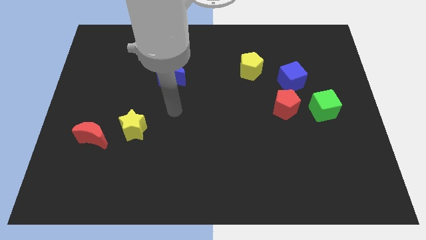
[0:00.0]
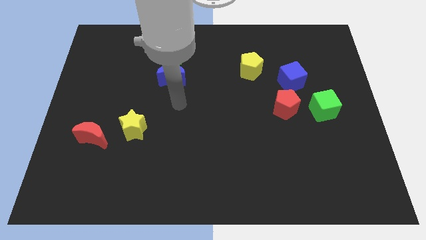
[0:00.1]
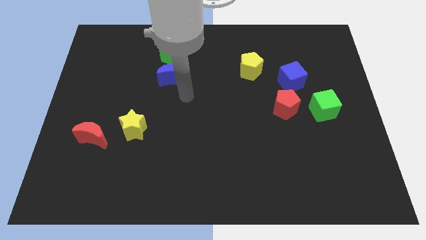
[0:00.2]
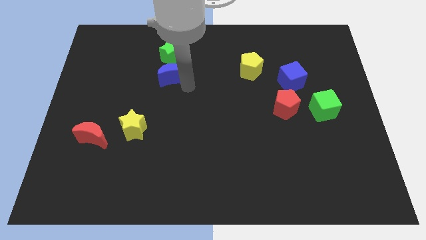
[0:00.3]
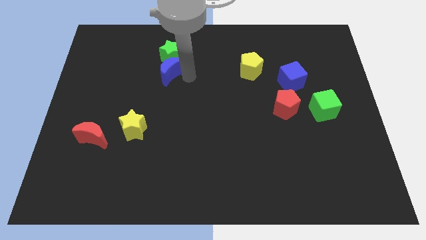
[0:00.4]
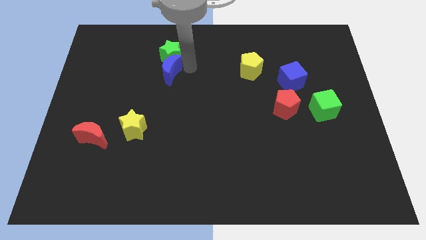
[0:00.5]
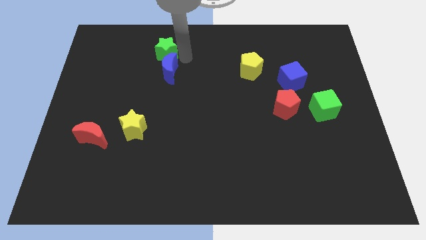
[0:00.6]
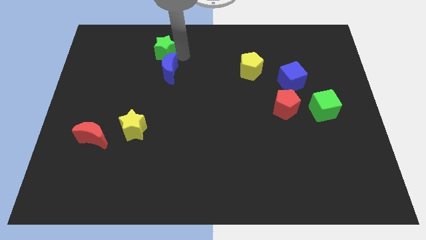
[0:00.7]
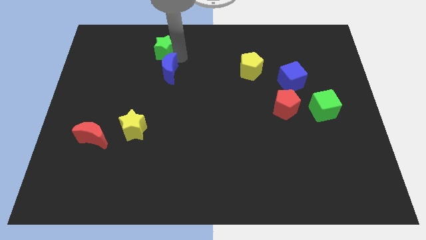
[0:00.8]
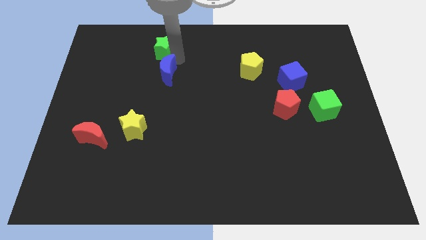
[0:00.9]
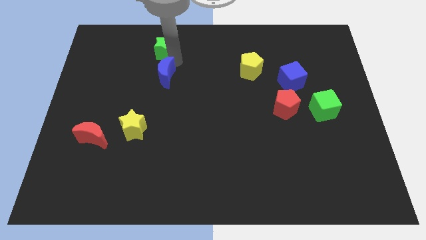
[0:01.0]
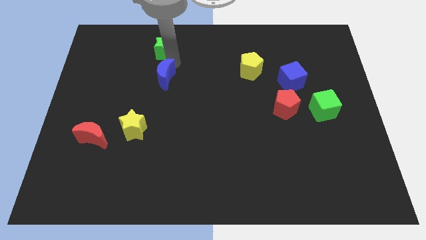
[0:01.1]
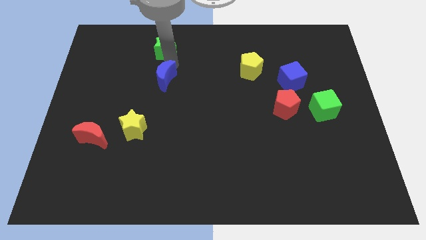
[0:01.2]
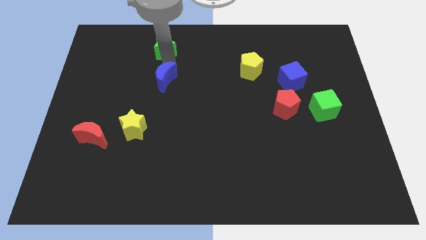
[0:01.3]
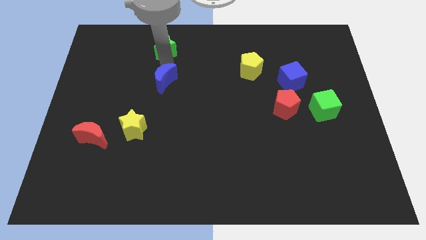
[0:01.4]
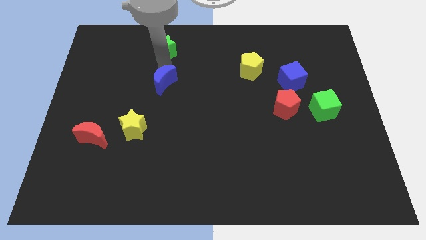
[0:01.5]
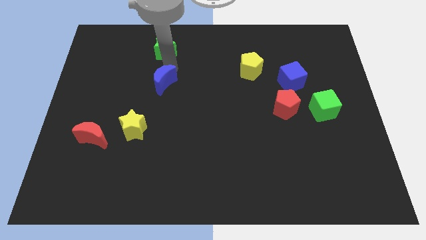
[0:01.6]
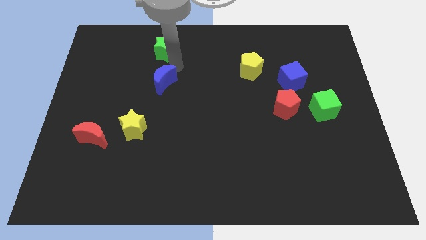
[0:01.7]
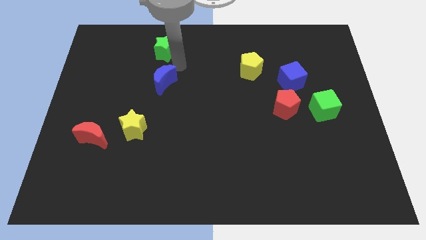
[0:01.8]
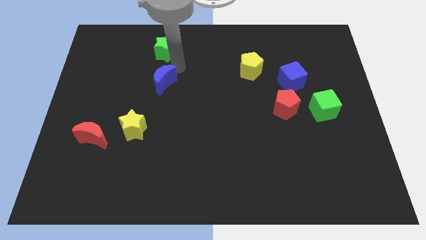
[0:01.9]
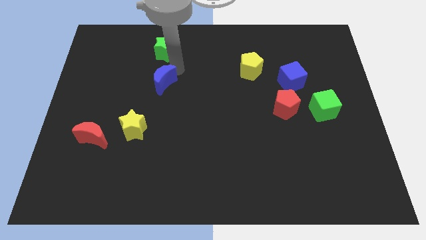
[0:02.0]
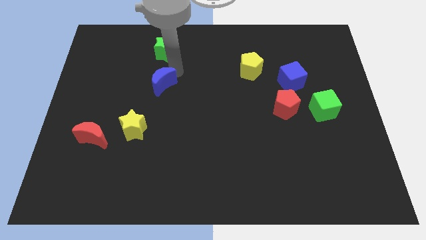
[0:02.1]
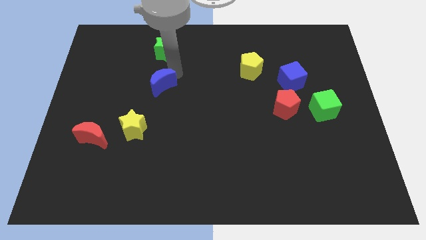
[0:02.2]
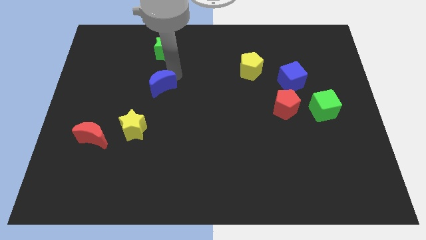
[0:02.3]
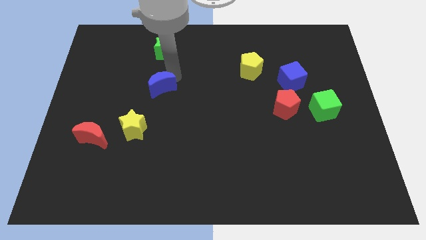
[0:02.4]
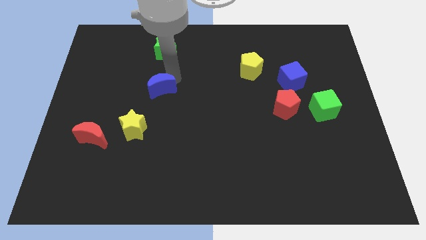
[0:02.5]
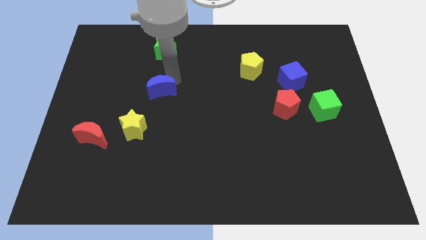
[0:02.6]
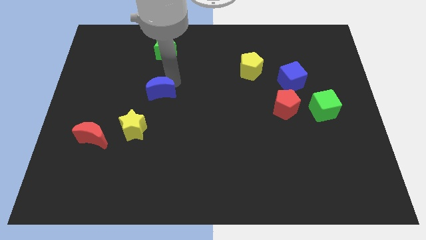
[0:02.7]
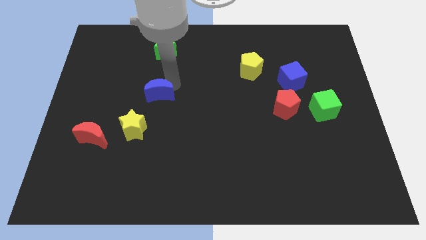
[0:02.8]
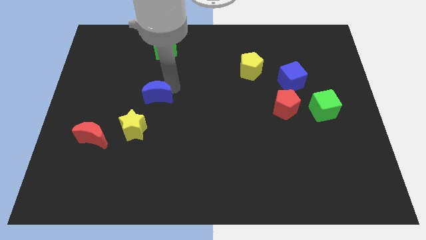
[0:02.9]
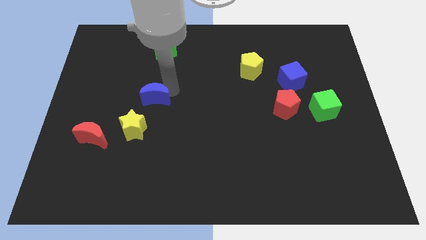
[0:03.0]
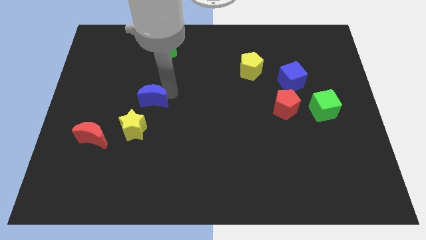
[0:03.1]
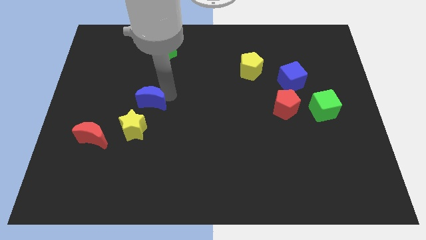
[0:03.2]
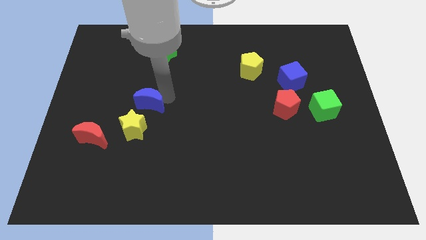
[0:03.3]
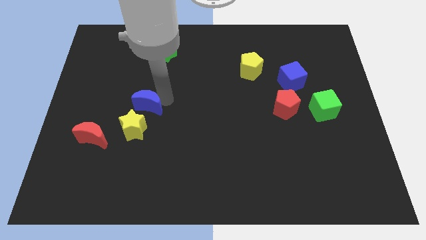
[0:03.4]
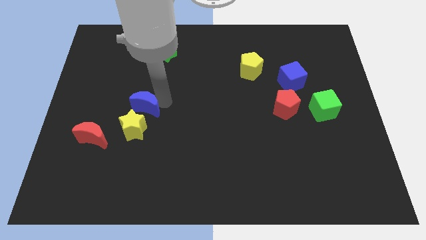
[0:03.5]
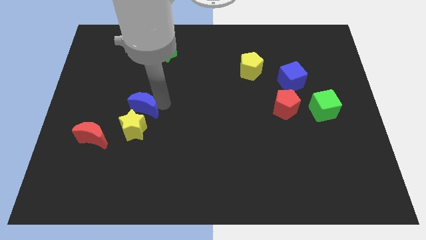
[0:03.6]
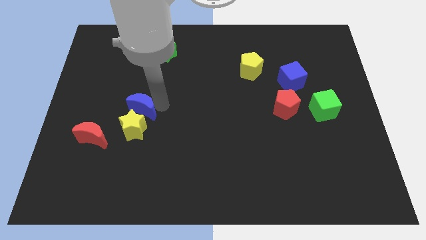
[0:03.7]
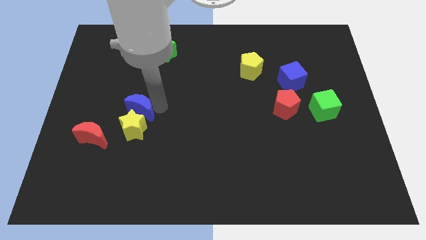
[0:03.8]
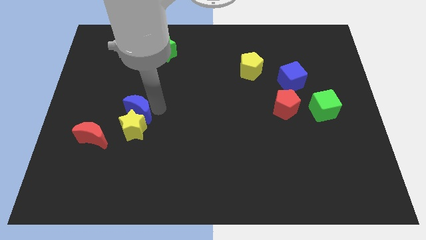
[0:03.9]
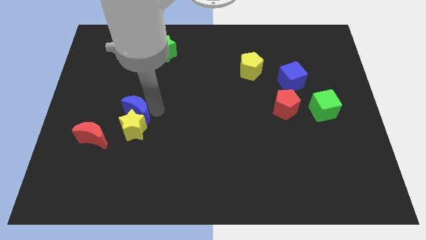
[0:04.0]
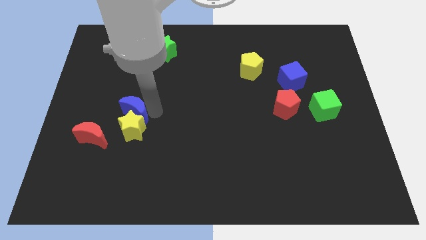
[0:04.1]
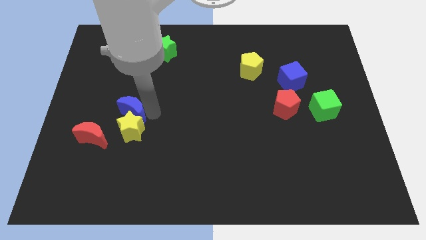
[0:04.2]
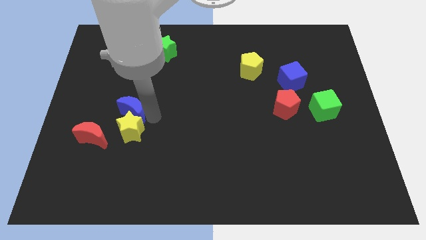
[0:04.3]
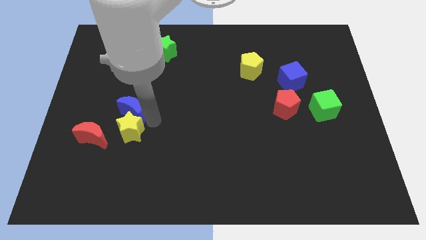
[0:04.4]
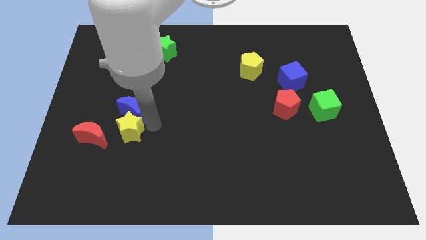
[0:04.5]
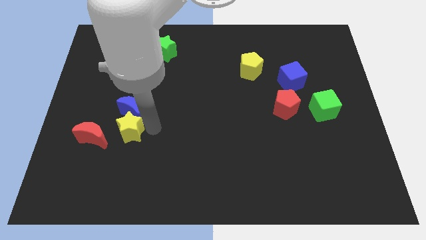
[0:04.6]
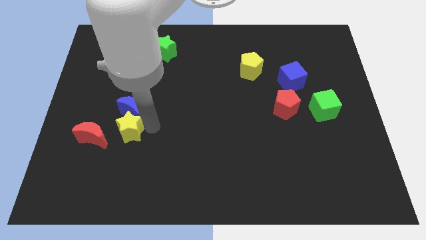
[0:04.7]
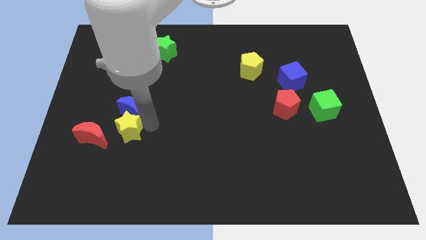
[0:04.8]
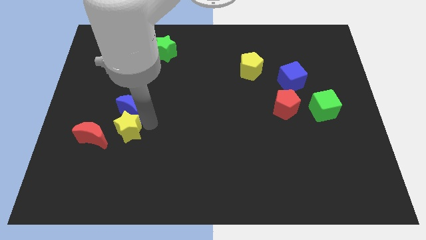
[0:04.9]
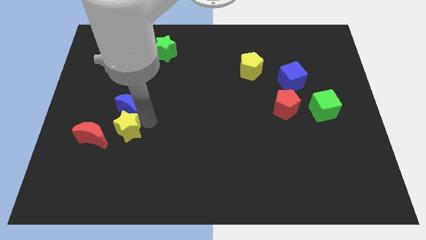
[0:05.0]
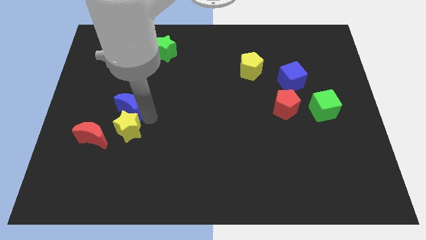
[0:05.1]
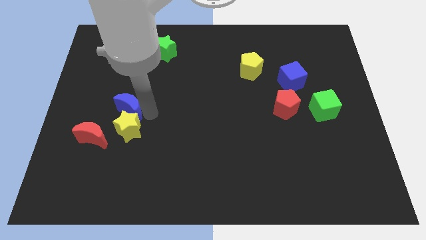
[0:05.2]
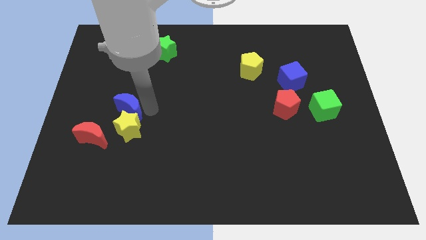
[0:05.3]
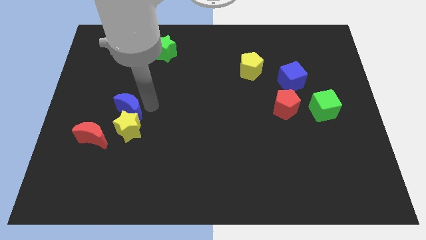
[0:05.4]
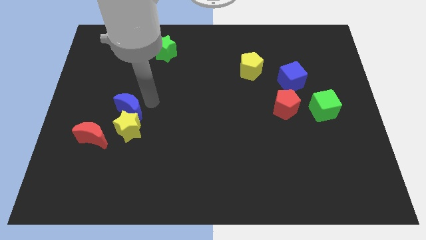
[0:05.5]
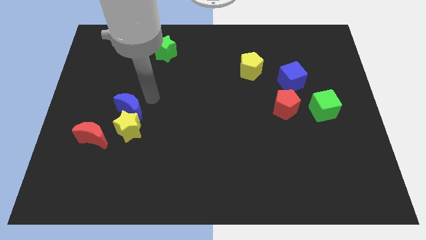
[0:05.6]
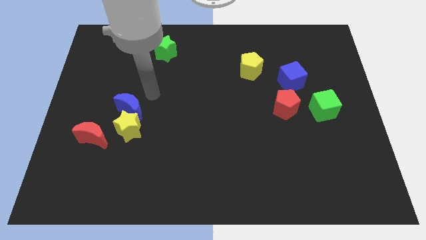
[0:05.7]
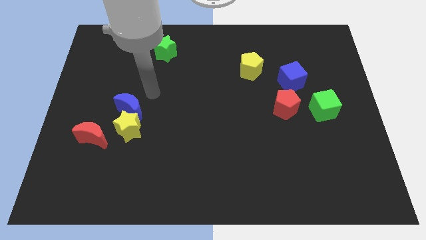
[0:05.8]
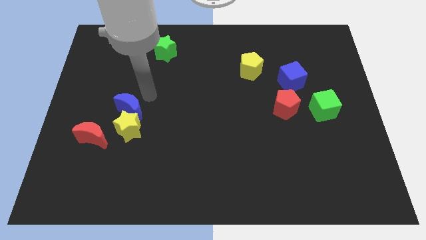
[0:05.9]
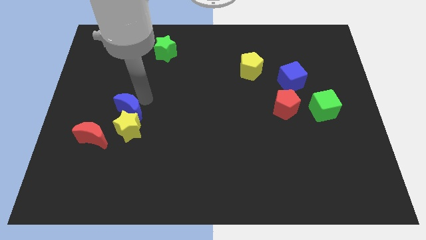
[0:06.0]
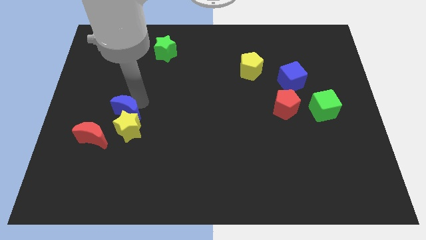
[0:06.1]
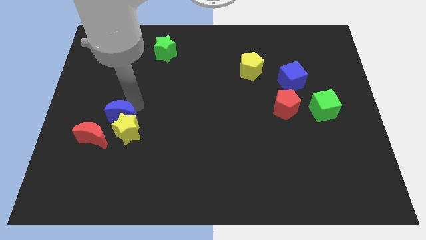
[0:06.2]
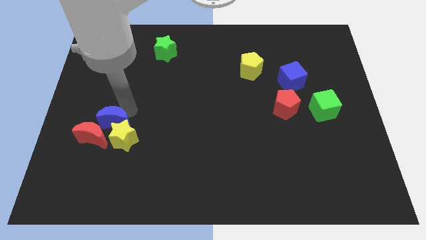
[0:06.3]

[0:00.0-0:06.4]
slide the blue moon to the red moon

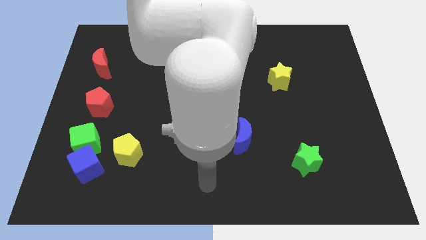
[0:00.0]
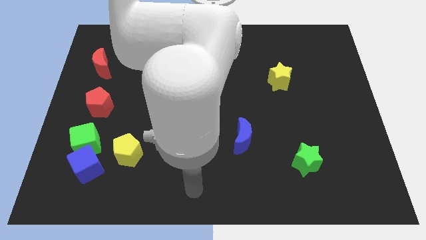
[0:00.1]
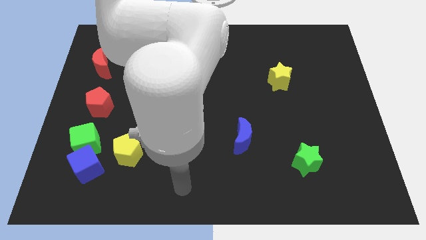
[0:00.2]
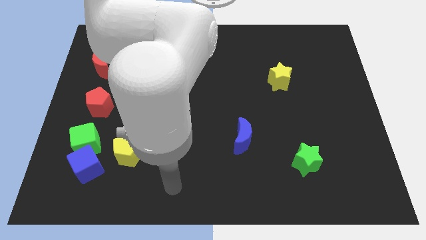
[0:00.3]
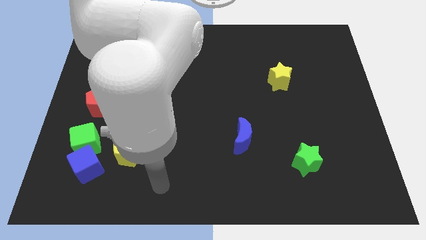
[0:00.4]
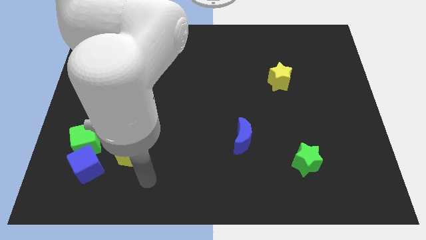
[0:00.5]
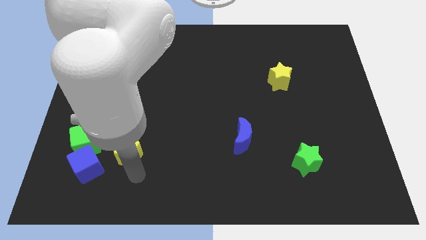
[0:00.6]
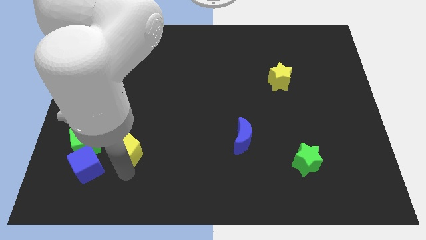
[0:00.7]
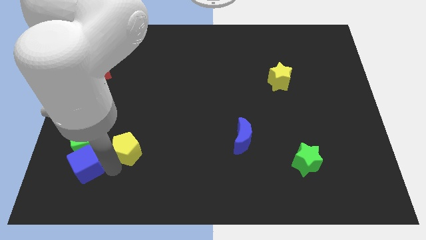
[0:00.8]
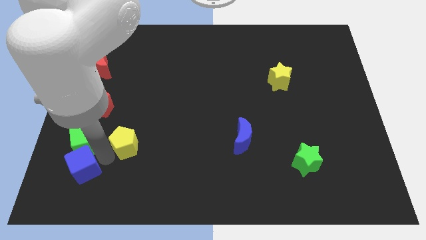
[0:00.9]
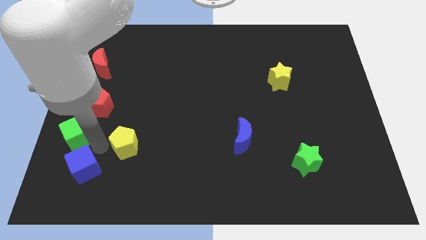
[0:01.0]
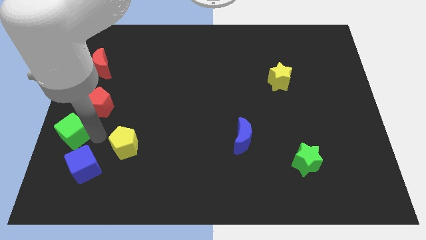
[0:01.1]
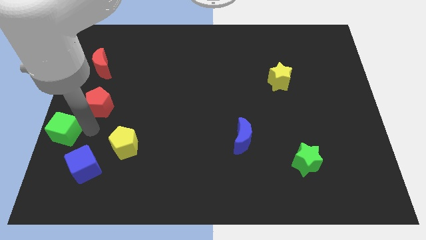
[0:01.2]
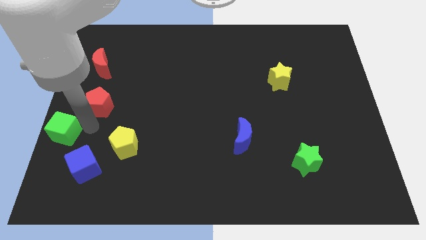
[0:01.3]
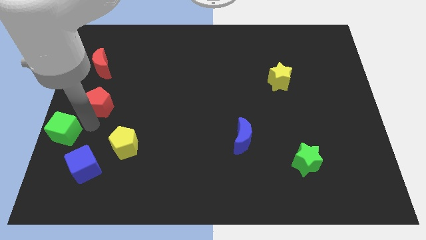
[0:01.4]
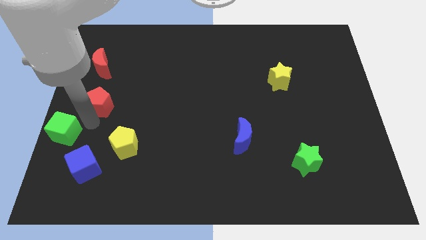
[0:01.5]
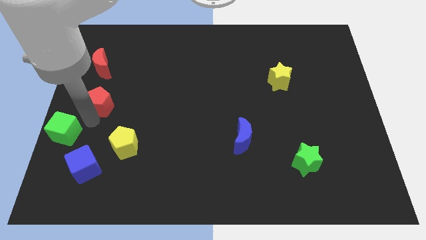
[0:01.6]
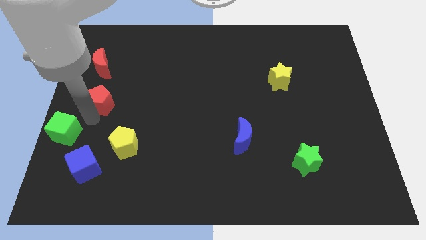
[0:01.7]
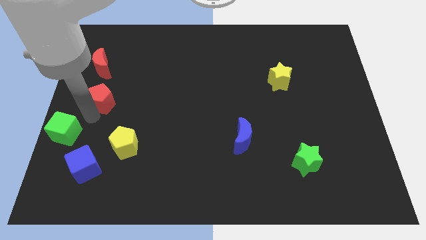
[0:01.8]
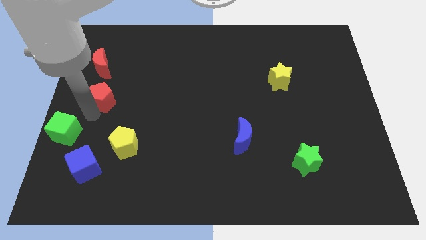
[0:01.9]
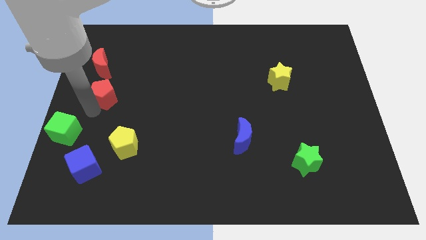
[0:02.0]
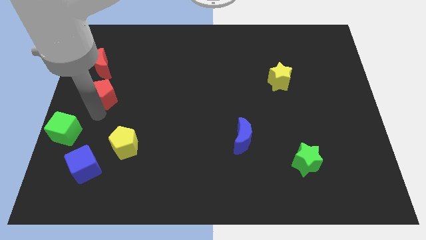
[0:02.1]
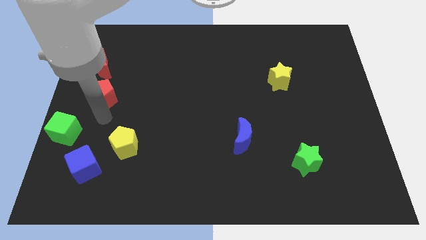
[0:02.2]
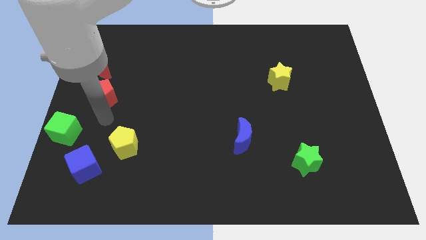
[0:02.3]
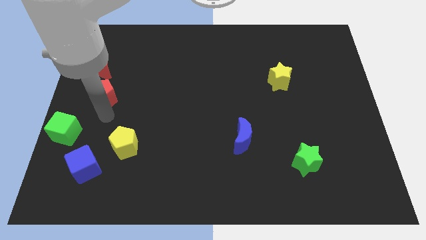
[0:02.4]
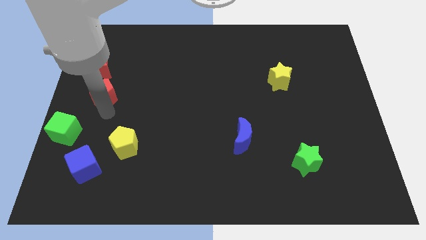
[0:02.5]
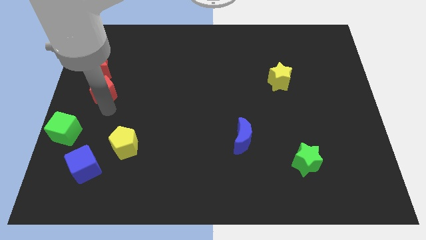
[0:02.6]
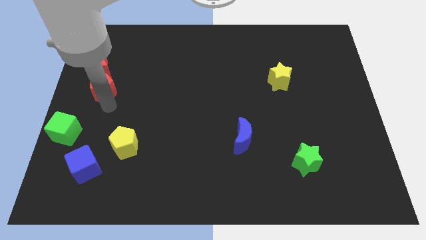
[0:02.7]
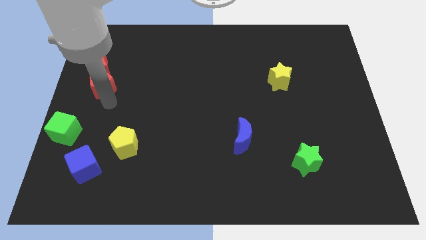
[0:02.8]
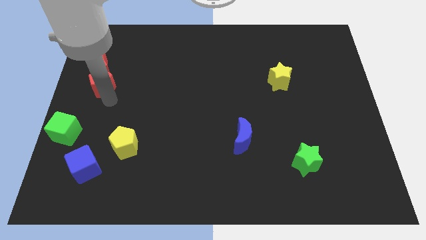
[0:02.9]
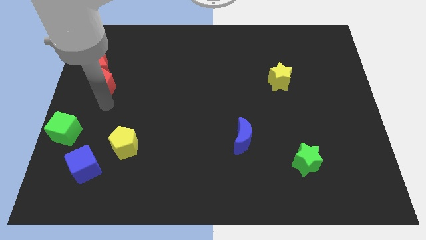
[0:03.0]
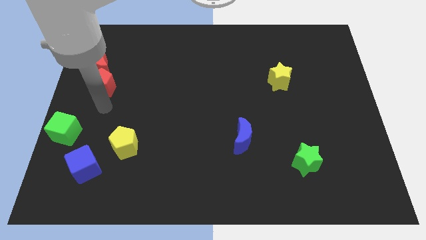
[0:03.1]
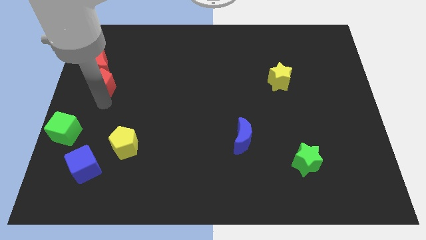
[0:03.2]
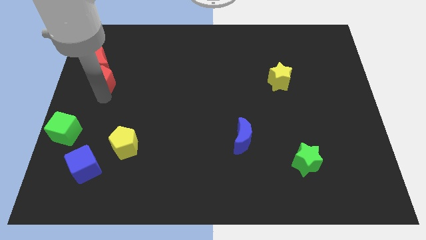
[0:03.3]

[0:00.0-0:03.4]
put the red pentagon next to the red moon
